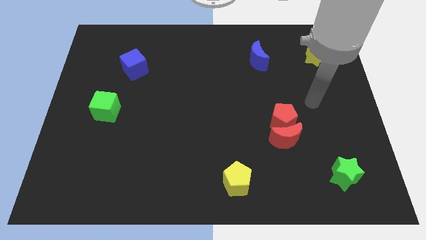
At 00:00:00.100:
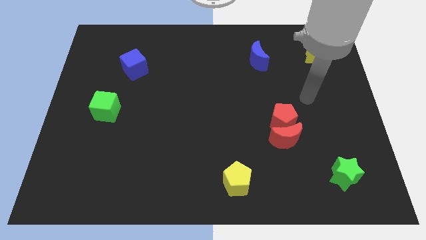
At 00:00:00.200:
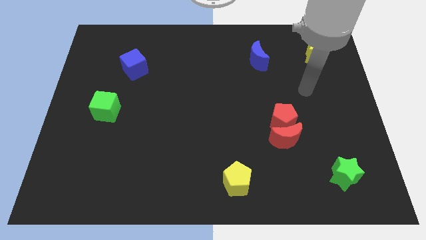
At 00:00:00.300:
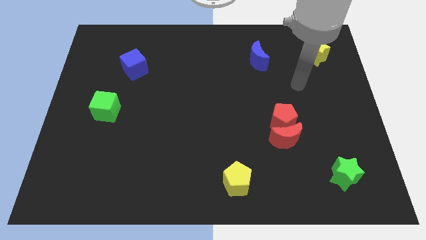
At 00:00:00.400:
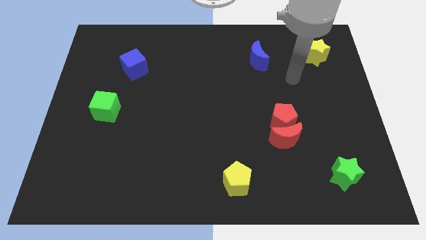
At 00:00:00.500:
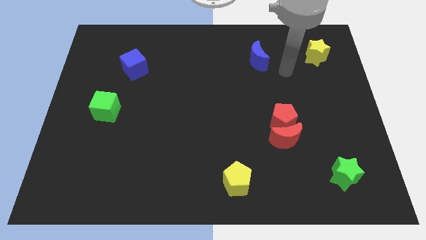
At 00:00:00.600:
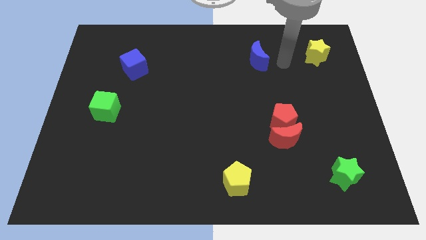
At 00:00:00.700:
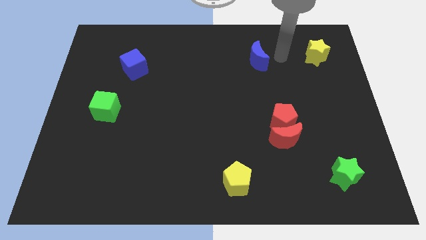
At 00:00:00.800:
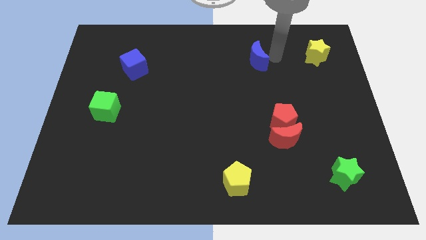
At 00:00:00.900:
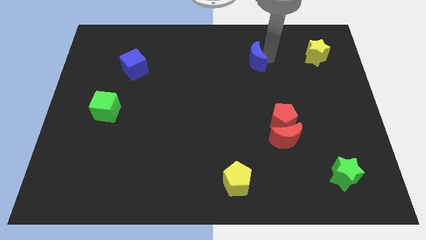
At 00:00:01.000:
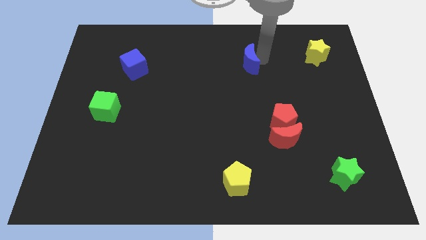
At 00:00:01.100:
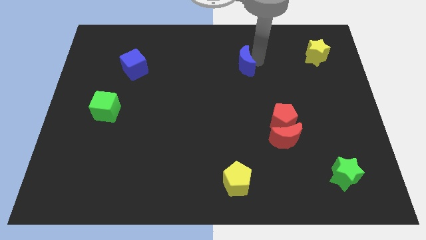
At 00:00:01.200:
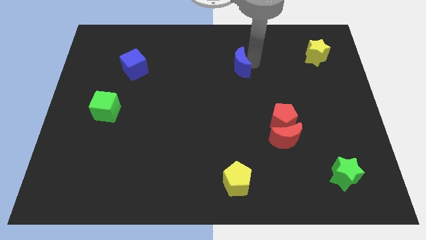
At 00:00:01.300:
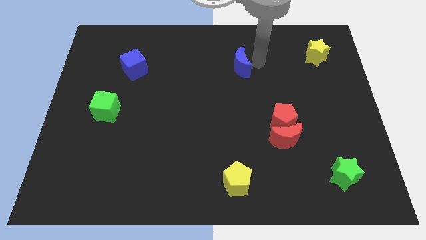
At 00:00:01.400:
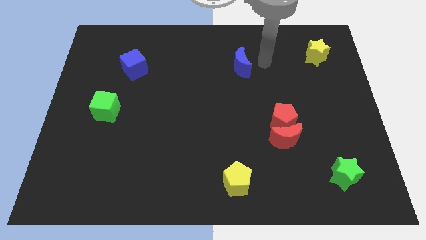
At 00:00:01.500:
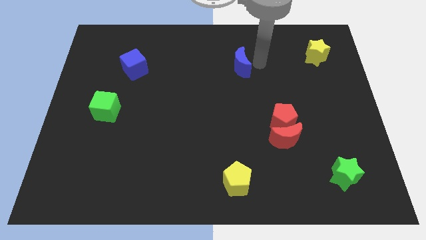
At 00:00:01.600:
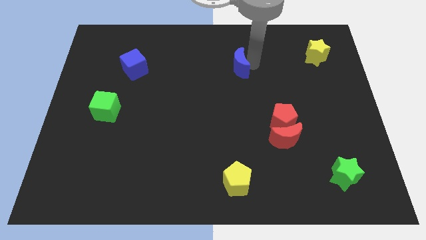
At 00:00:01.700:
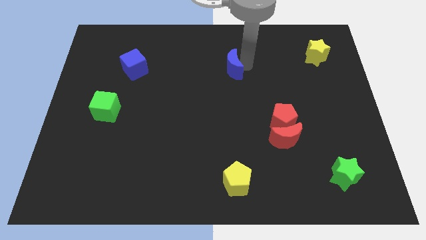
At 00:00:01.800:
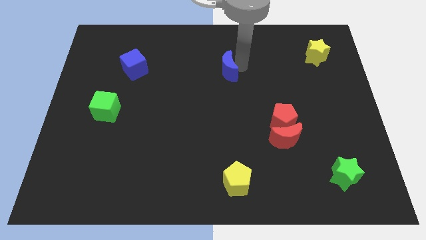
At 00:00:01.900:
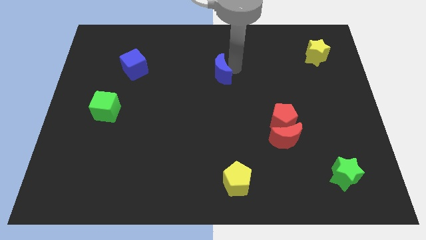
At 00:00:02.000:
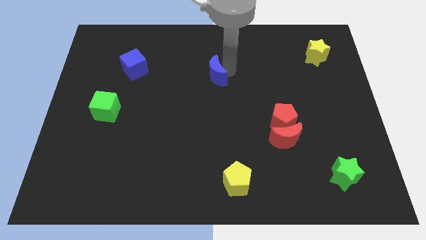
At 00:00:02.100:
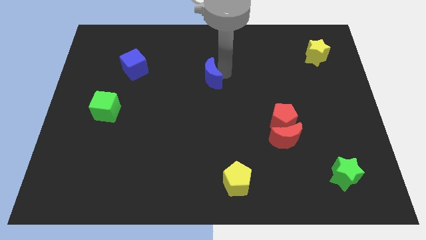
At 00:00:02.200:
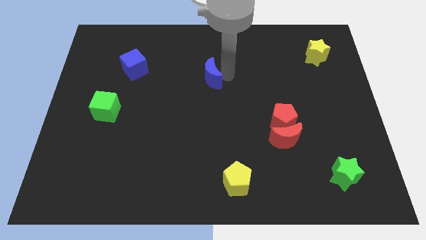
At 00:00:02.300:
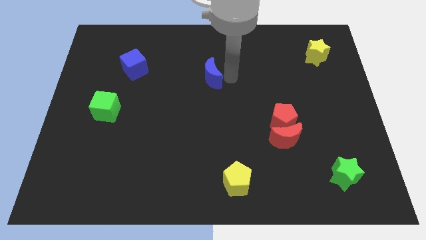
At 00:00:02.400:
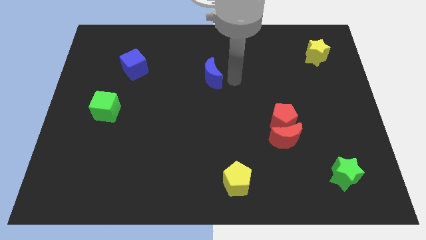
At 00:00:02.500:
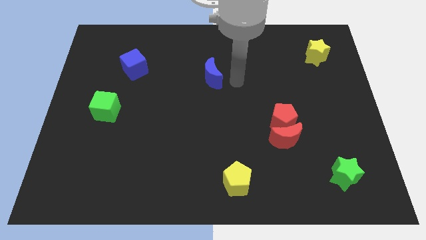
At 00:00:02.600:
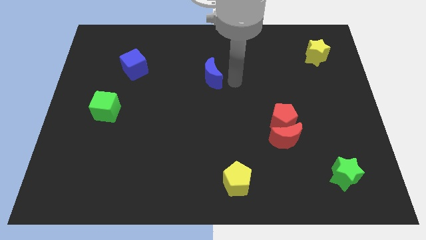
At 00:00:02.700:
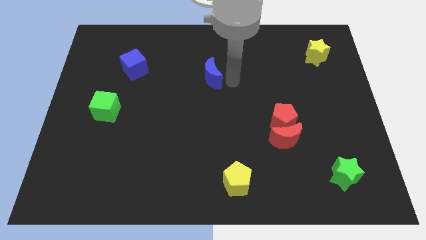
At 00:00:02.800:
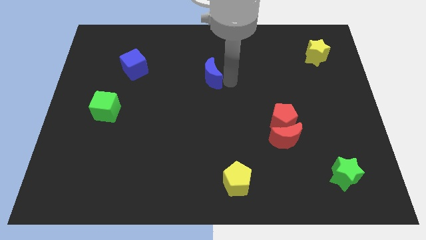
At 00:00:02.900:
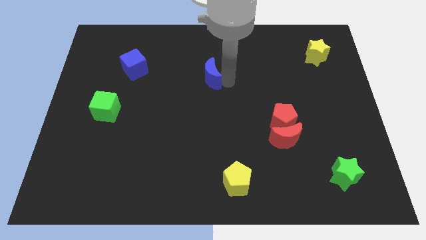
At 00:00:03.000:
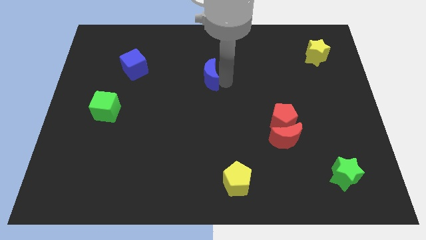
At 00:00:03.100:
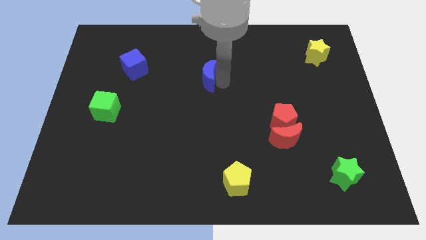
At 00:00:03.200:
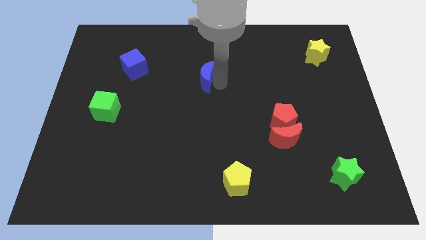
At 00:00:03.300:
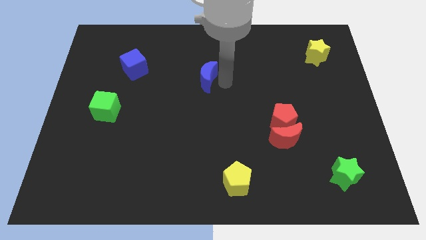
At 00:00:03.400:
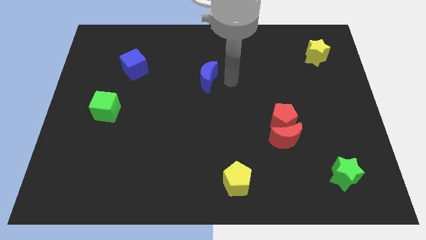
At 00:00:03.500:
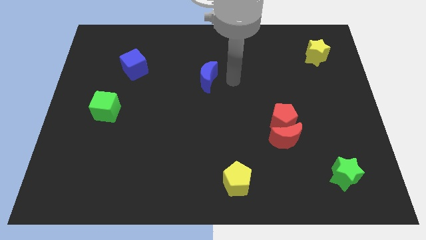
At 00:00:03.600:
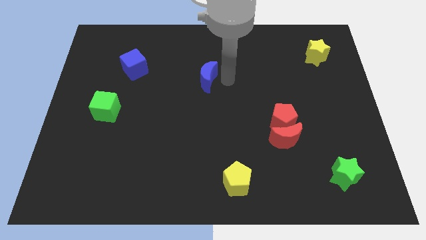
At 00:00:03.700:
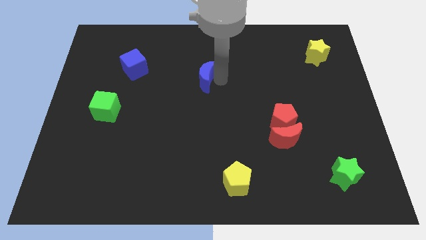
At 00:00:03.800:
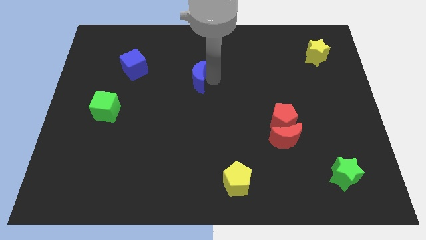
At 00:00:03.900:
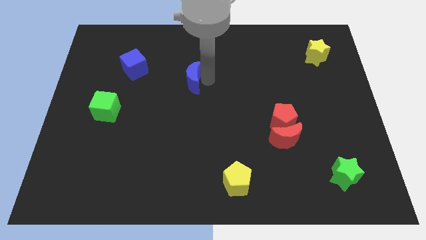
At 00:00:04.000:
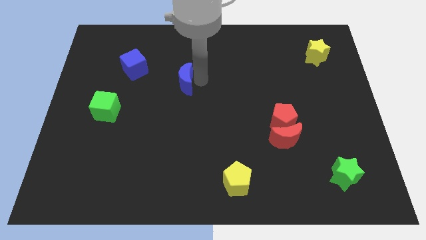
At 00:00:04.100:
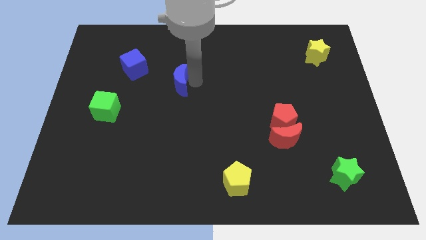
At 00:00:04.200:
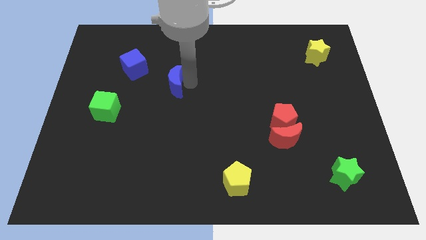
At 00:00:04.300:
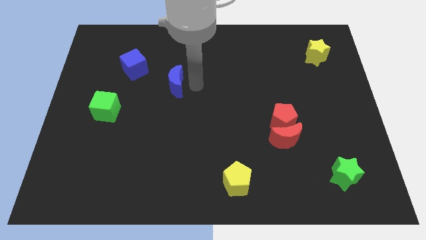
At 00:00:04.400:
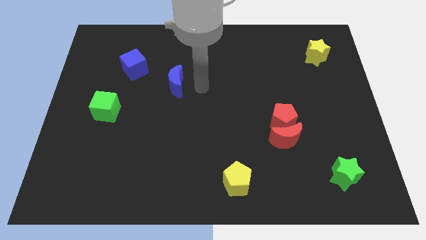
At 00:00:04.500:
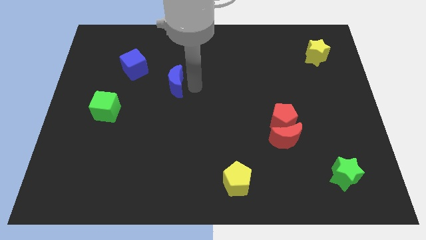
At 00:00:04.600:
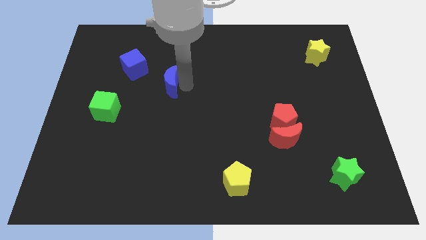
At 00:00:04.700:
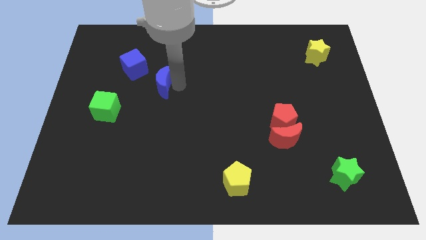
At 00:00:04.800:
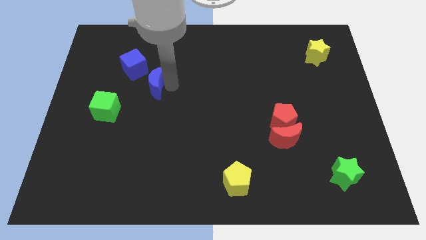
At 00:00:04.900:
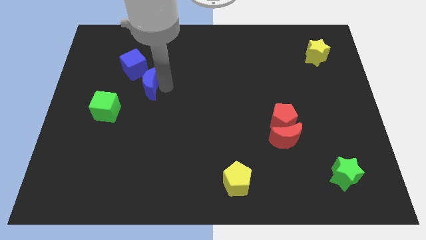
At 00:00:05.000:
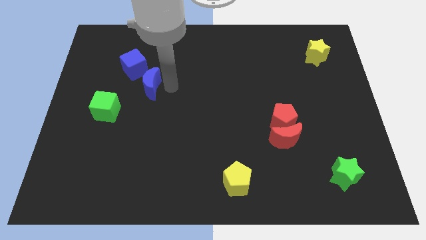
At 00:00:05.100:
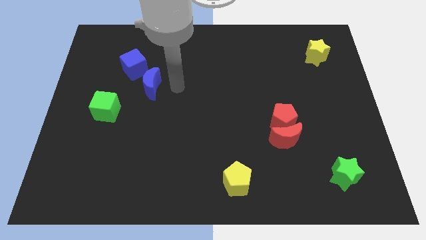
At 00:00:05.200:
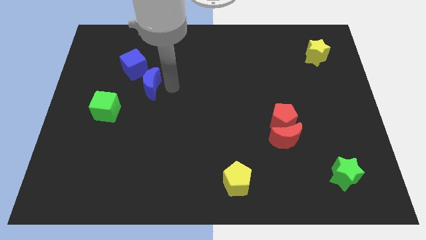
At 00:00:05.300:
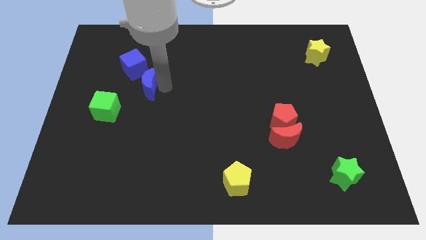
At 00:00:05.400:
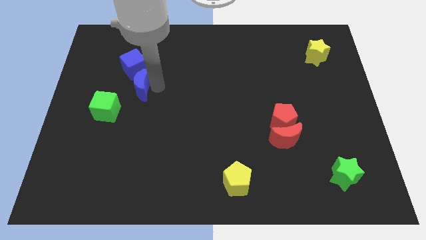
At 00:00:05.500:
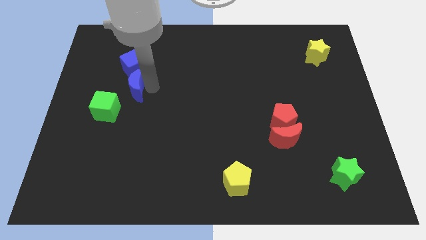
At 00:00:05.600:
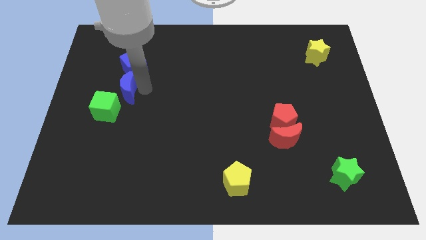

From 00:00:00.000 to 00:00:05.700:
move the blue moon to the bottom left side of the blue cube

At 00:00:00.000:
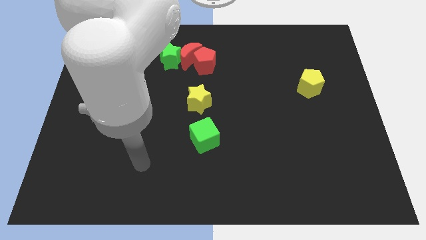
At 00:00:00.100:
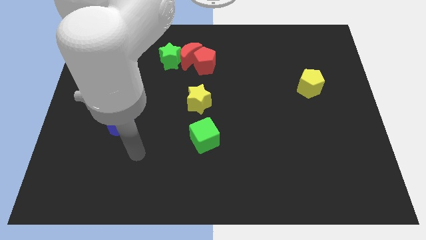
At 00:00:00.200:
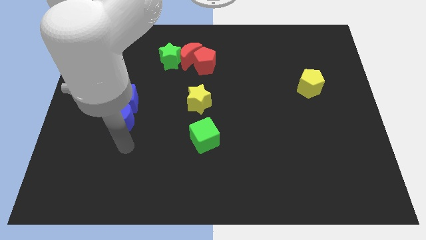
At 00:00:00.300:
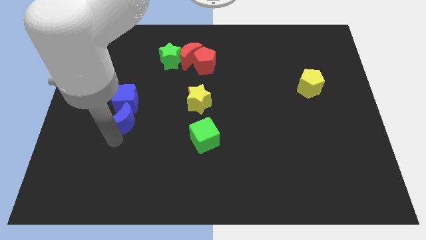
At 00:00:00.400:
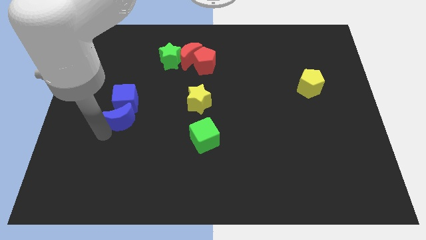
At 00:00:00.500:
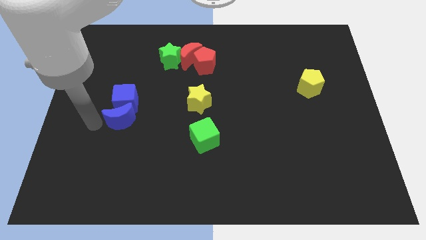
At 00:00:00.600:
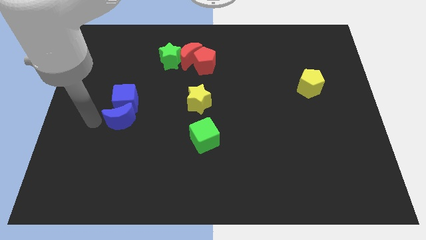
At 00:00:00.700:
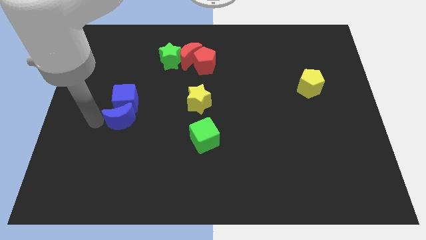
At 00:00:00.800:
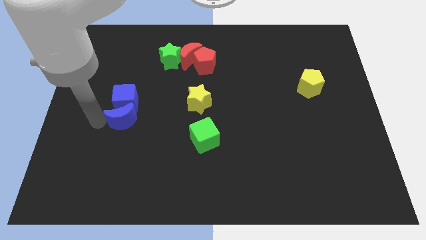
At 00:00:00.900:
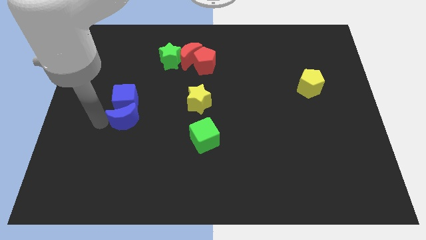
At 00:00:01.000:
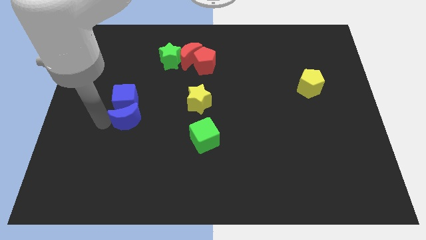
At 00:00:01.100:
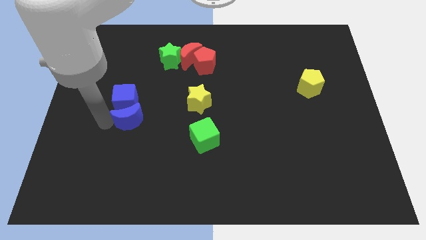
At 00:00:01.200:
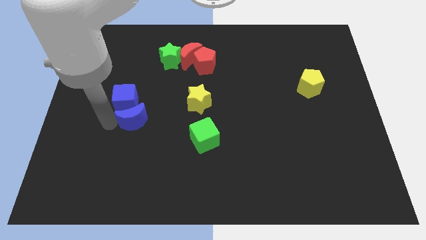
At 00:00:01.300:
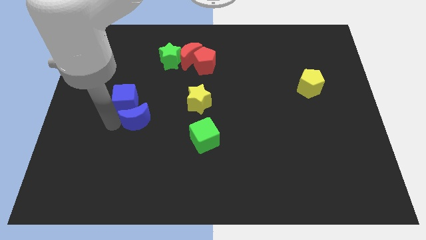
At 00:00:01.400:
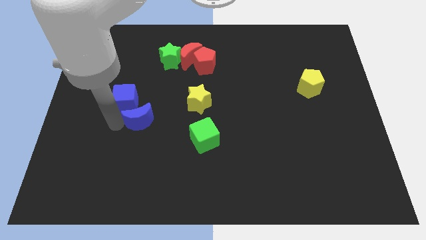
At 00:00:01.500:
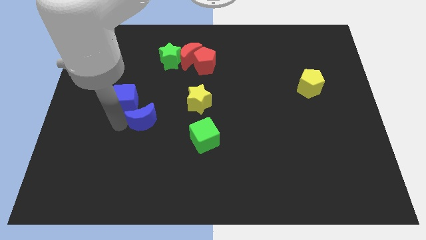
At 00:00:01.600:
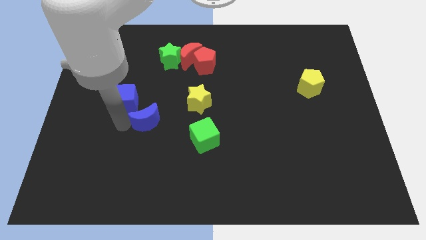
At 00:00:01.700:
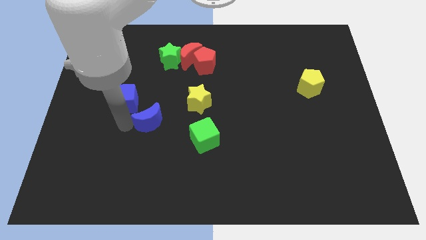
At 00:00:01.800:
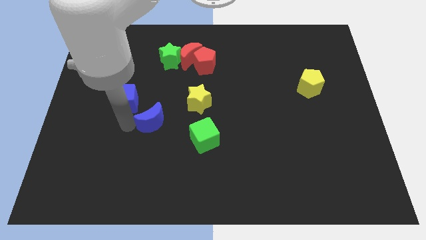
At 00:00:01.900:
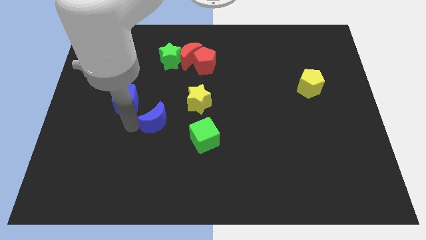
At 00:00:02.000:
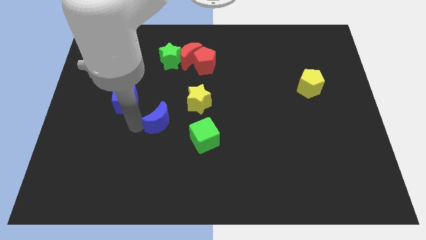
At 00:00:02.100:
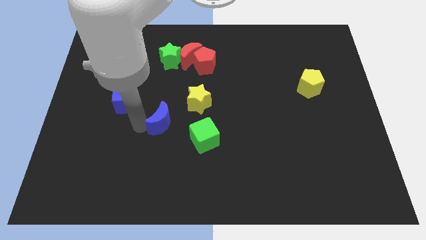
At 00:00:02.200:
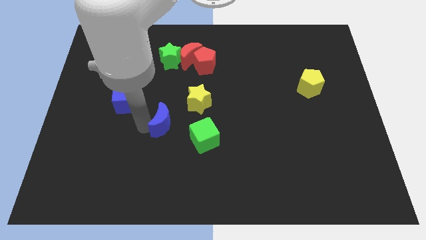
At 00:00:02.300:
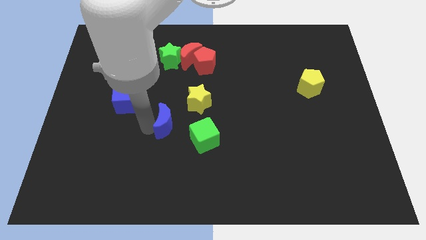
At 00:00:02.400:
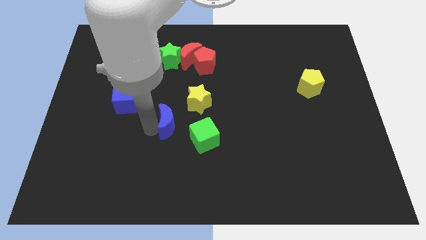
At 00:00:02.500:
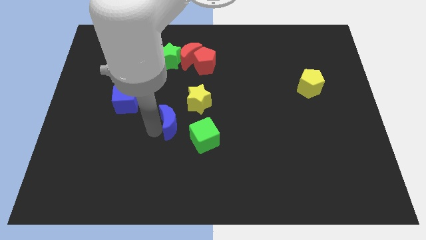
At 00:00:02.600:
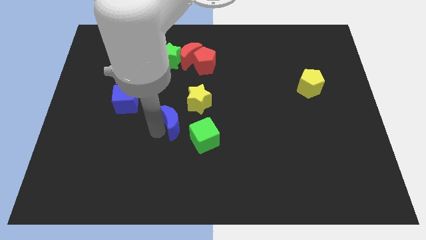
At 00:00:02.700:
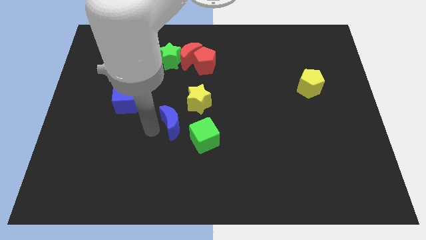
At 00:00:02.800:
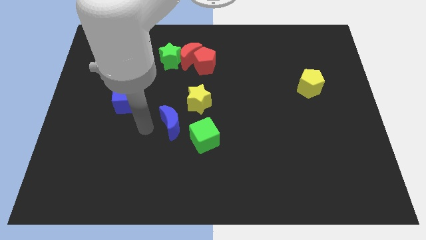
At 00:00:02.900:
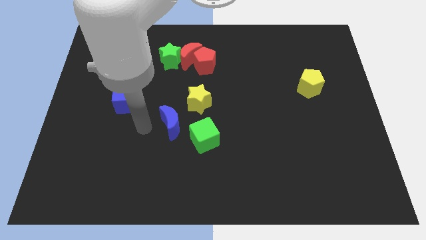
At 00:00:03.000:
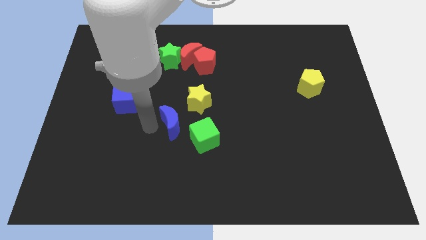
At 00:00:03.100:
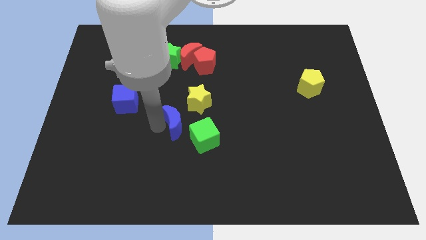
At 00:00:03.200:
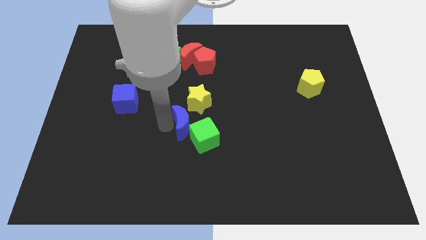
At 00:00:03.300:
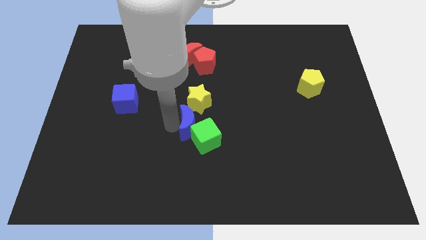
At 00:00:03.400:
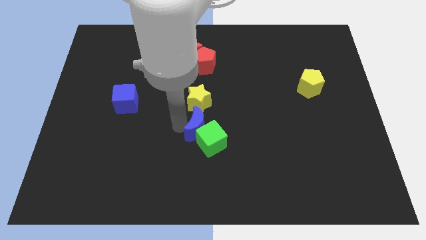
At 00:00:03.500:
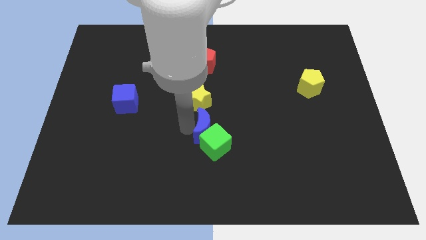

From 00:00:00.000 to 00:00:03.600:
slide the blue moon diagonally down and to the right of the yellow star
